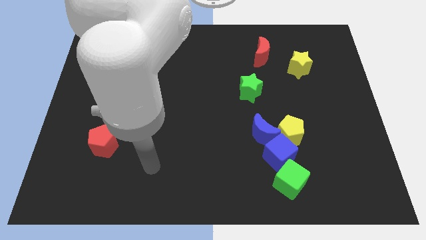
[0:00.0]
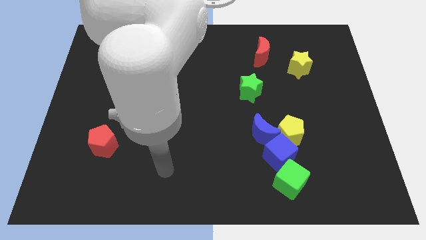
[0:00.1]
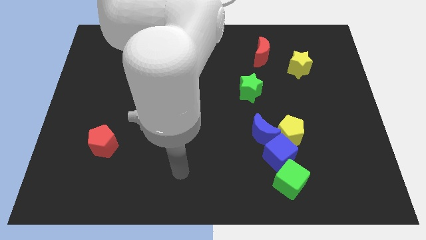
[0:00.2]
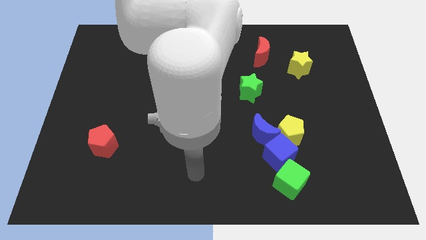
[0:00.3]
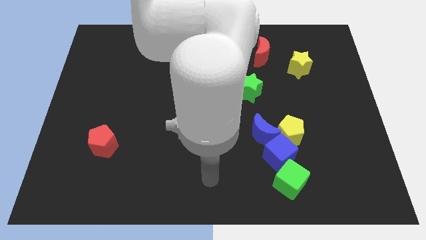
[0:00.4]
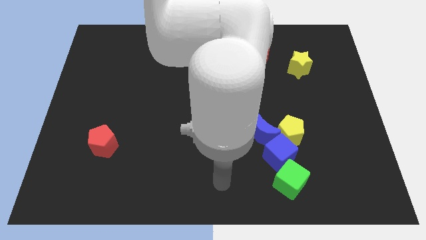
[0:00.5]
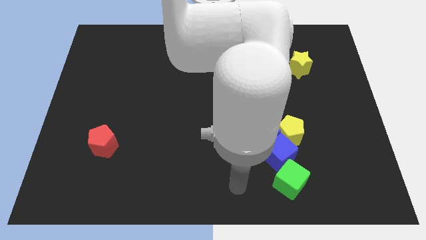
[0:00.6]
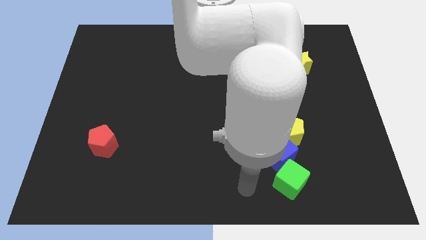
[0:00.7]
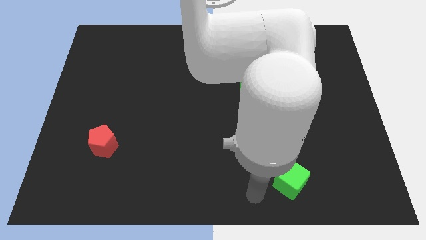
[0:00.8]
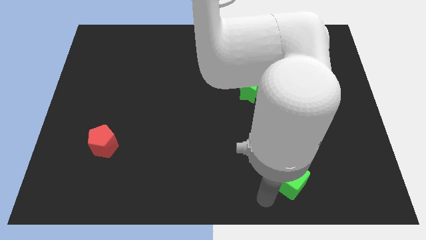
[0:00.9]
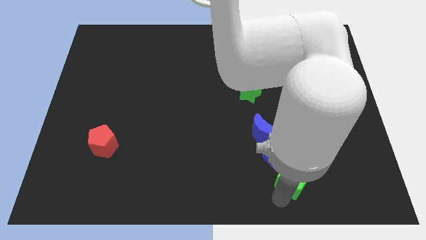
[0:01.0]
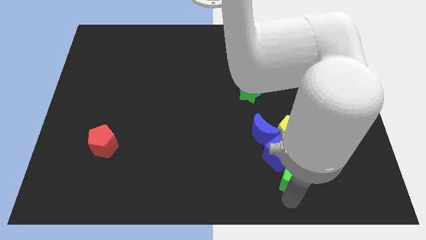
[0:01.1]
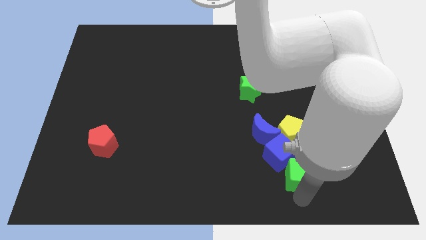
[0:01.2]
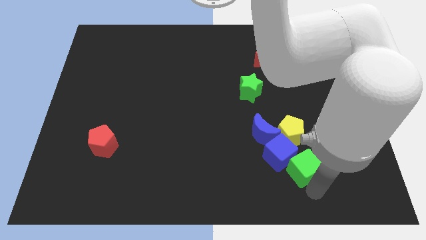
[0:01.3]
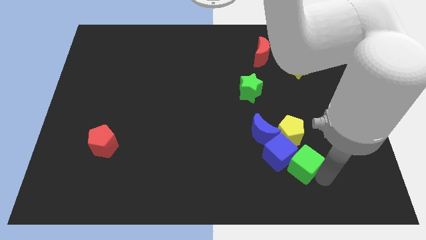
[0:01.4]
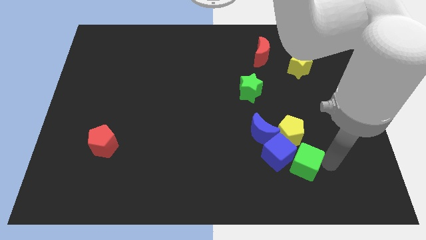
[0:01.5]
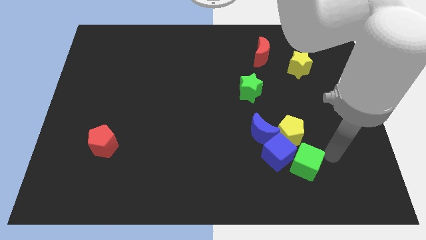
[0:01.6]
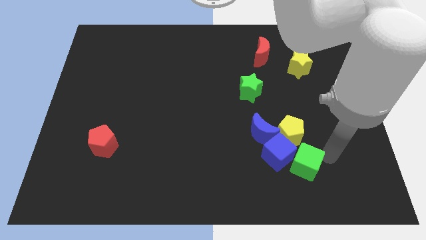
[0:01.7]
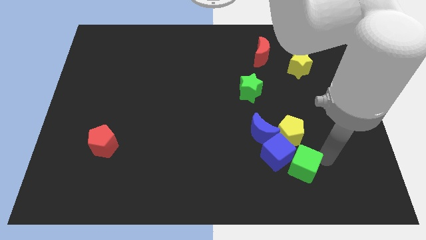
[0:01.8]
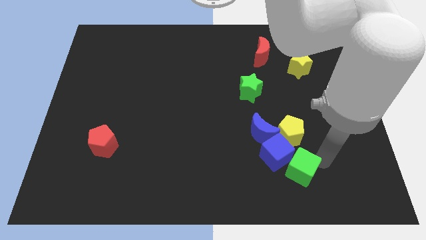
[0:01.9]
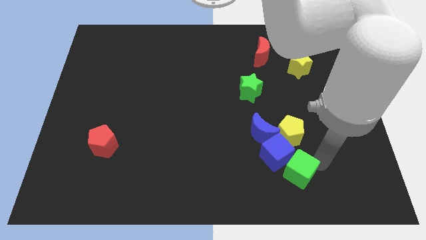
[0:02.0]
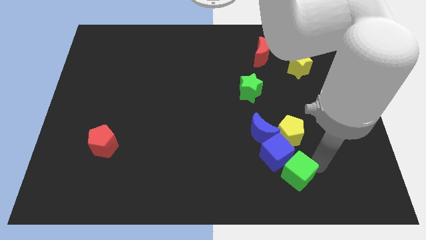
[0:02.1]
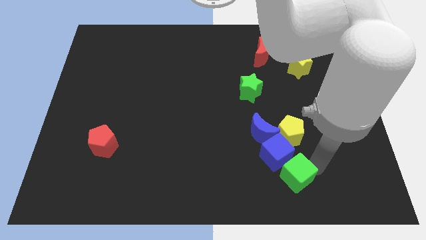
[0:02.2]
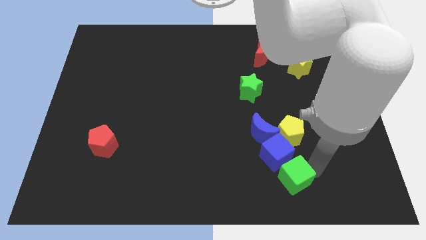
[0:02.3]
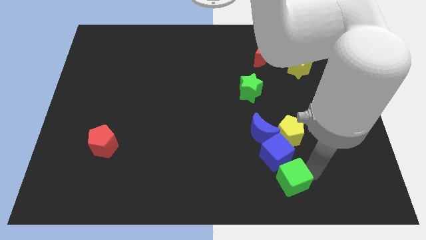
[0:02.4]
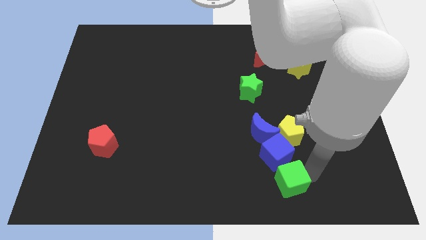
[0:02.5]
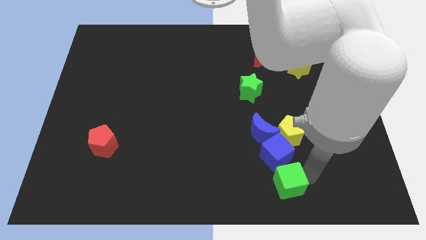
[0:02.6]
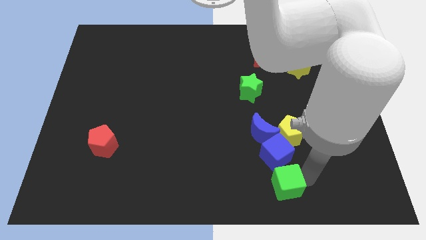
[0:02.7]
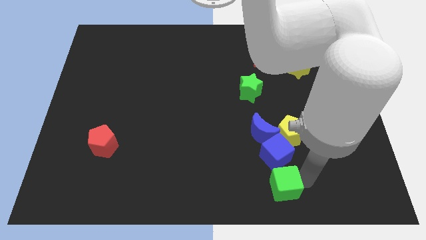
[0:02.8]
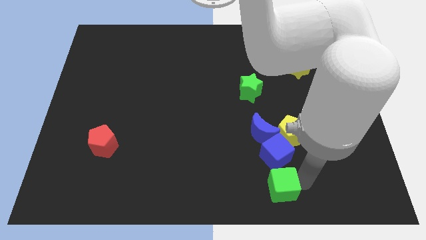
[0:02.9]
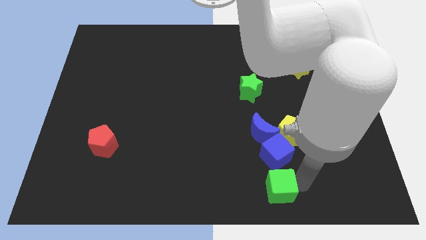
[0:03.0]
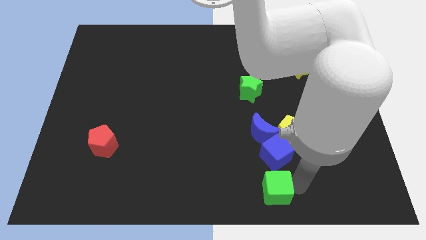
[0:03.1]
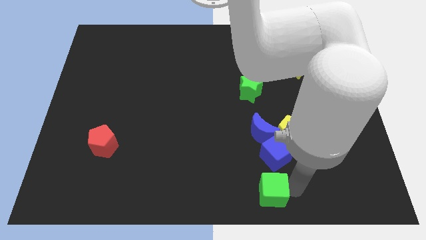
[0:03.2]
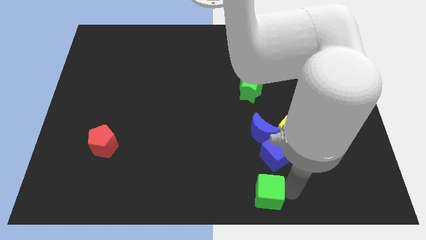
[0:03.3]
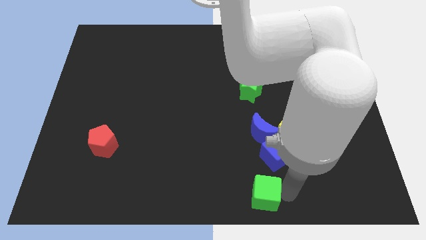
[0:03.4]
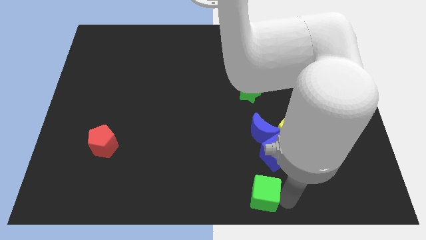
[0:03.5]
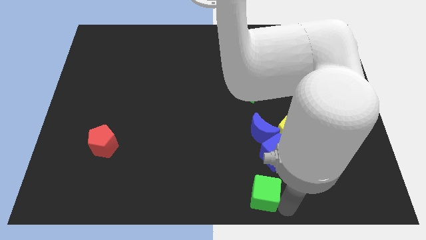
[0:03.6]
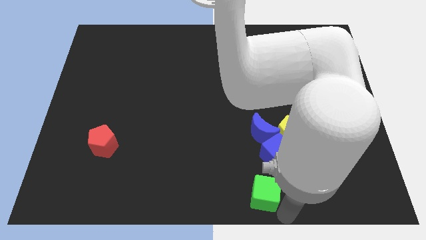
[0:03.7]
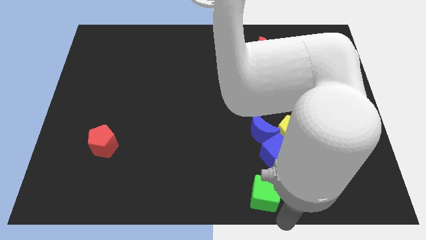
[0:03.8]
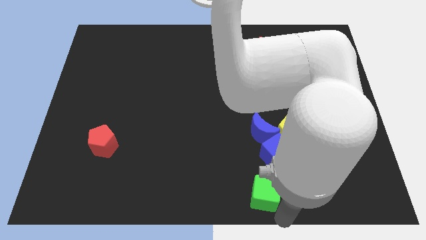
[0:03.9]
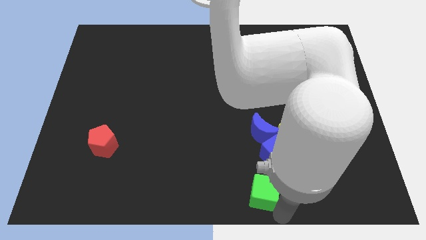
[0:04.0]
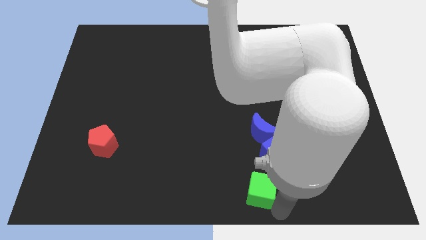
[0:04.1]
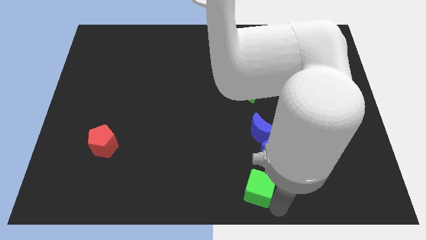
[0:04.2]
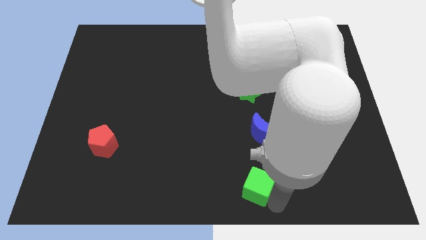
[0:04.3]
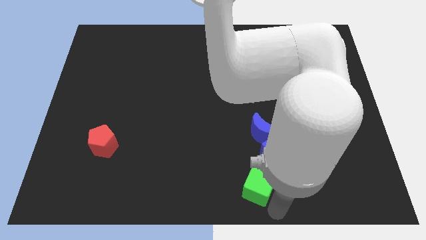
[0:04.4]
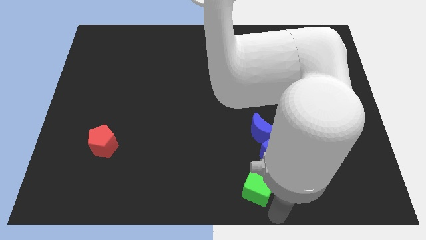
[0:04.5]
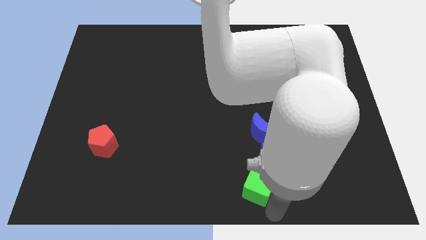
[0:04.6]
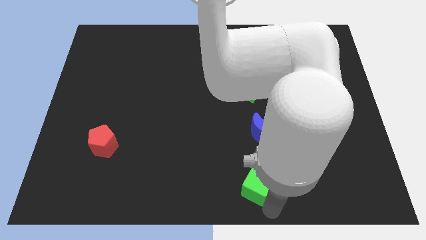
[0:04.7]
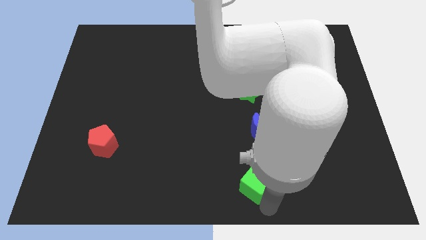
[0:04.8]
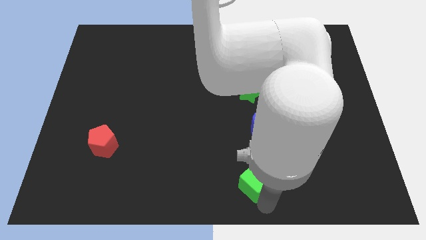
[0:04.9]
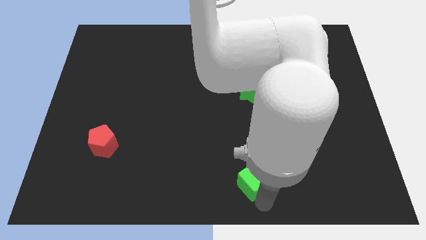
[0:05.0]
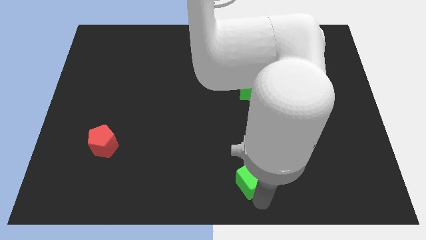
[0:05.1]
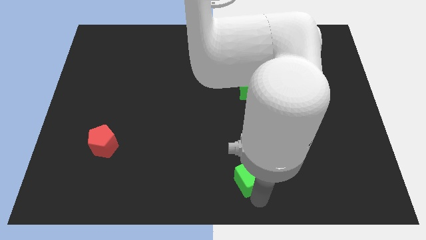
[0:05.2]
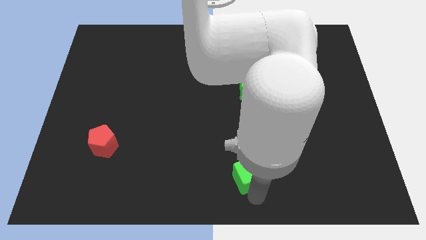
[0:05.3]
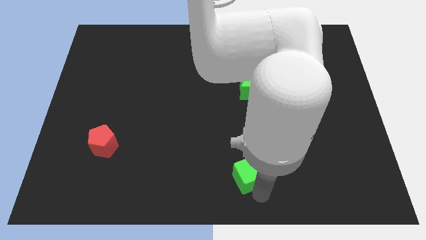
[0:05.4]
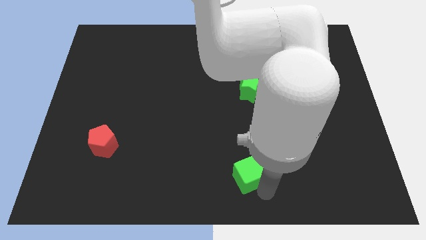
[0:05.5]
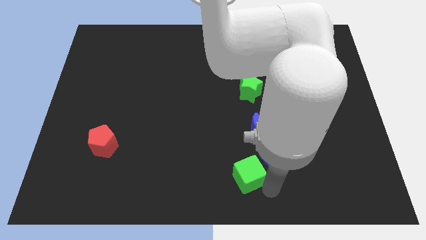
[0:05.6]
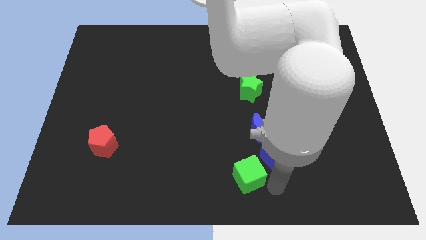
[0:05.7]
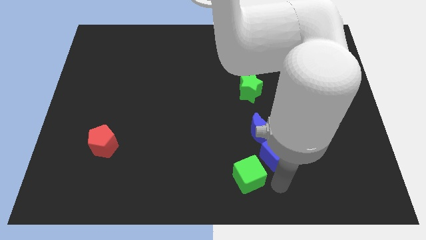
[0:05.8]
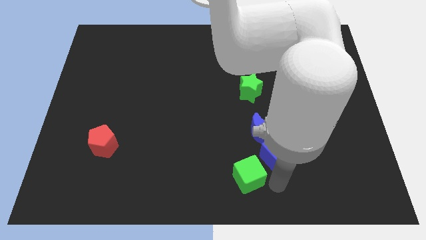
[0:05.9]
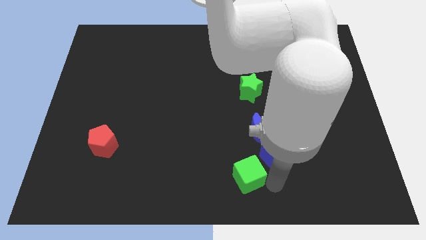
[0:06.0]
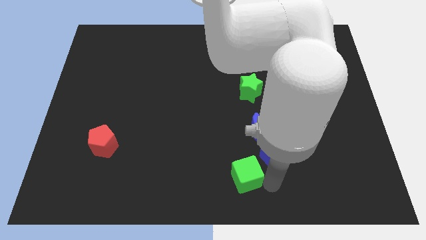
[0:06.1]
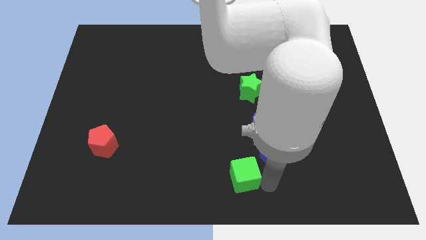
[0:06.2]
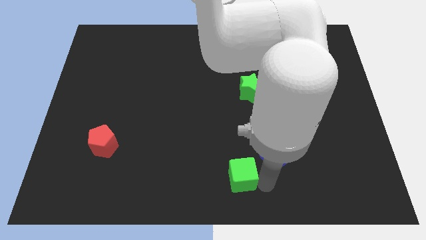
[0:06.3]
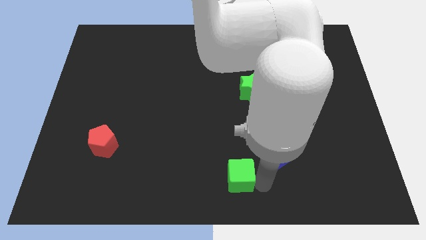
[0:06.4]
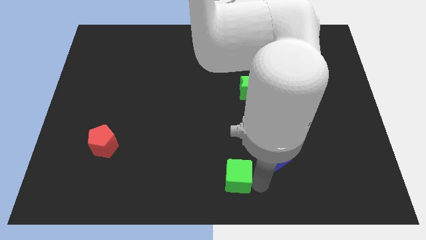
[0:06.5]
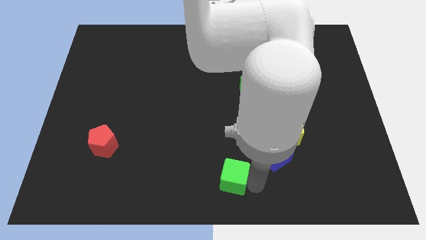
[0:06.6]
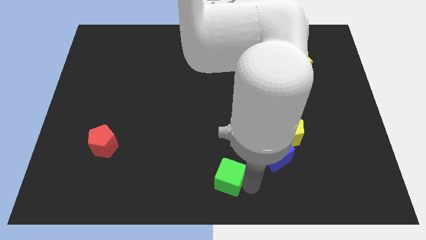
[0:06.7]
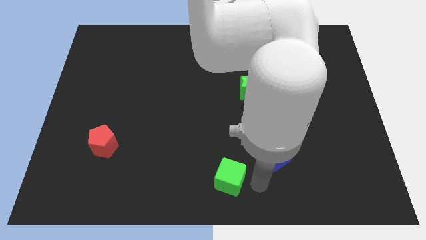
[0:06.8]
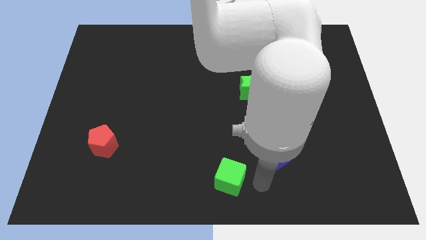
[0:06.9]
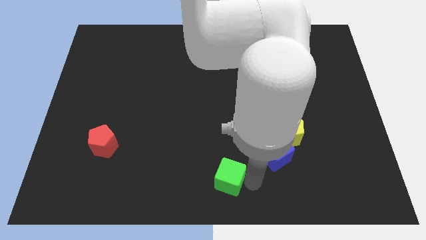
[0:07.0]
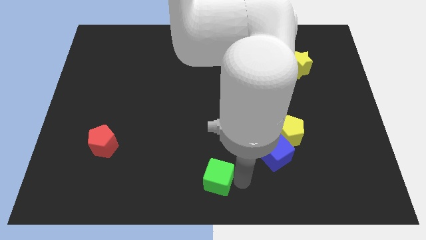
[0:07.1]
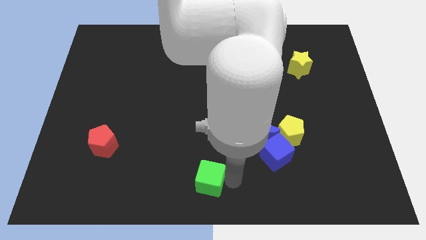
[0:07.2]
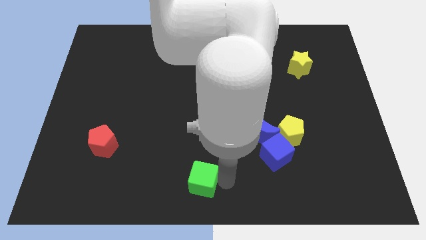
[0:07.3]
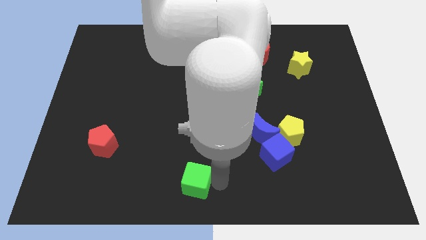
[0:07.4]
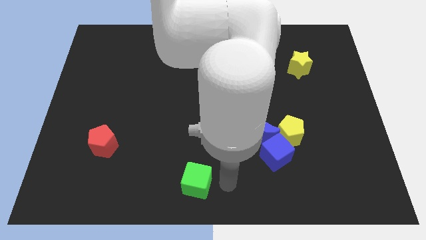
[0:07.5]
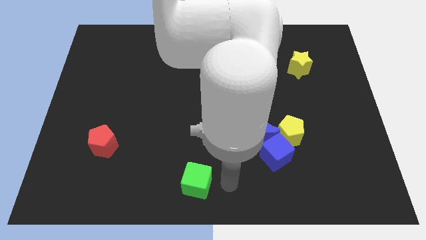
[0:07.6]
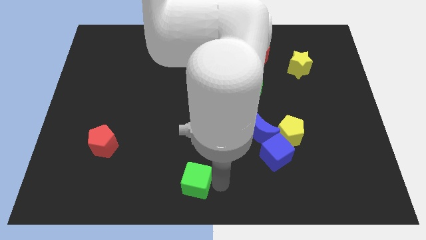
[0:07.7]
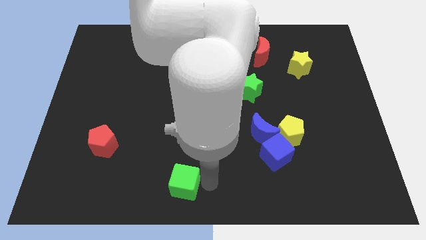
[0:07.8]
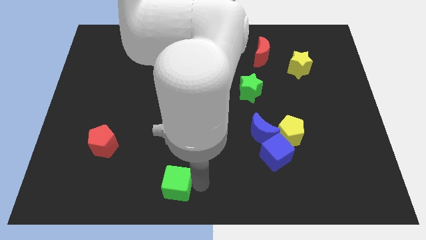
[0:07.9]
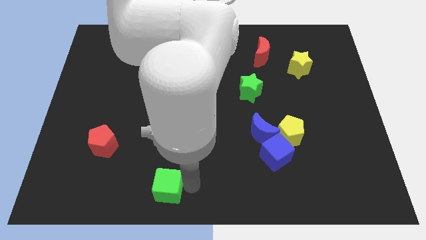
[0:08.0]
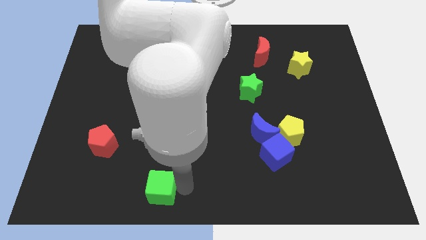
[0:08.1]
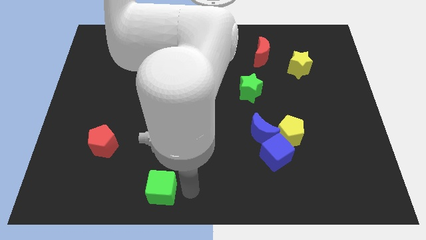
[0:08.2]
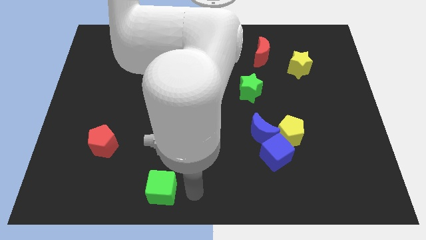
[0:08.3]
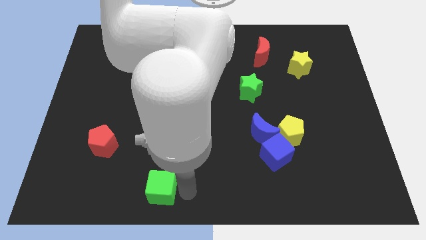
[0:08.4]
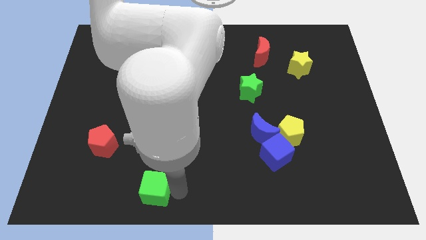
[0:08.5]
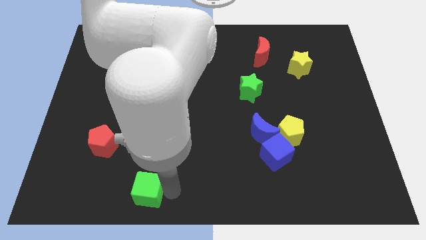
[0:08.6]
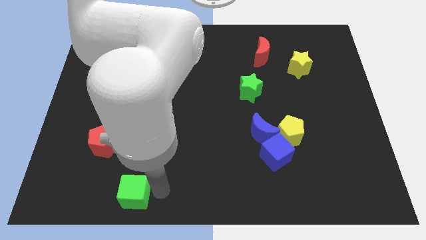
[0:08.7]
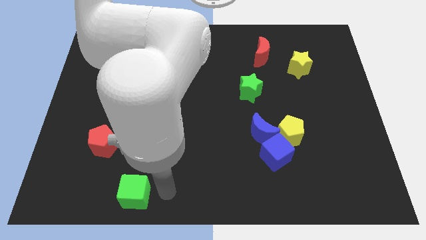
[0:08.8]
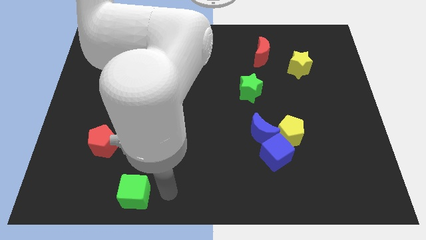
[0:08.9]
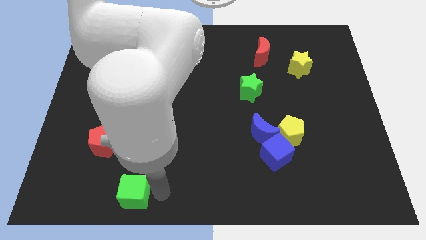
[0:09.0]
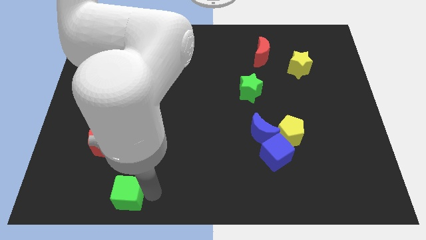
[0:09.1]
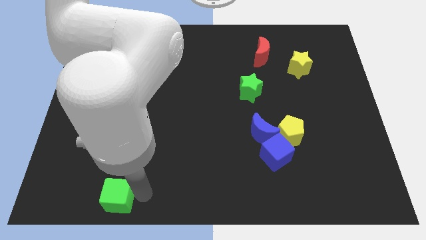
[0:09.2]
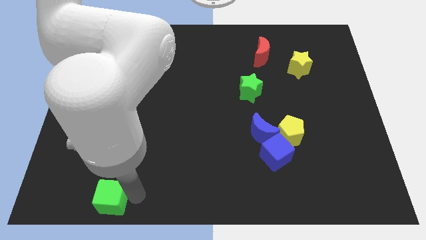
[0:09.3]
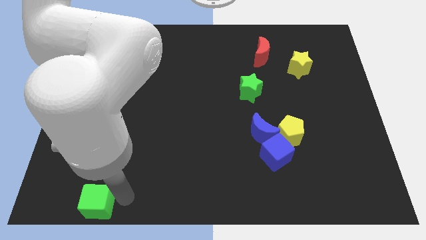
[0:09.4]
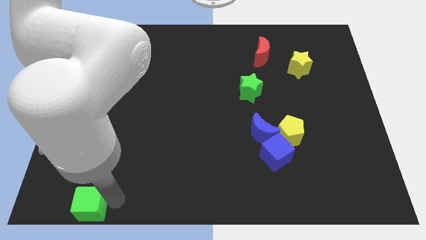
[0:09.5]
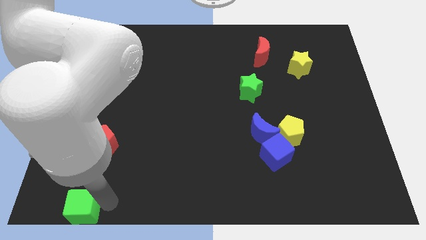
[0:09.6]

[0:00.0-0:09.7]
put the green cube to the bottom left corner
